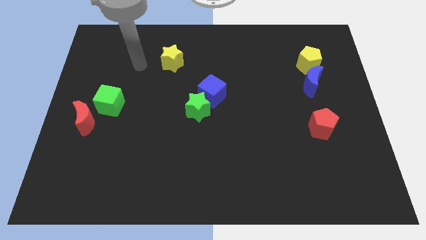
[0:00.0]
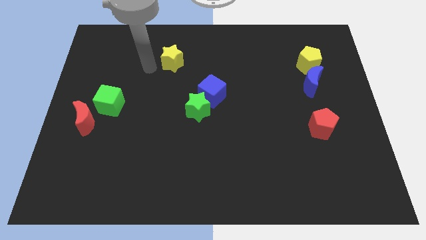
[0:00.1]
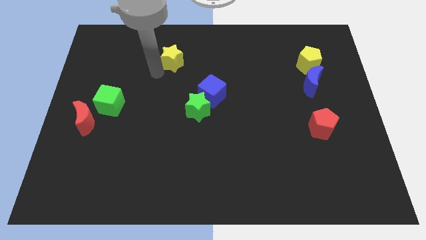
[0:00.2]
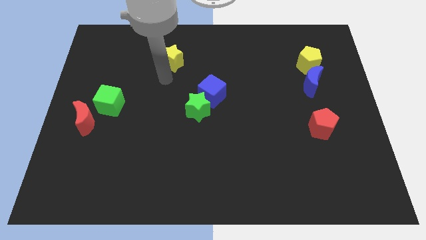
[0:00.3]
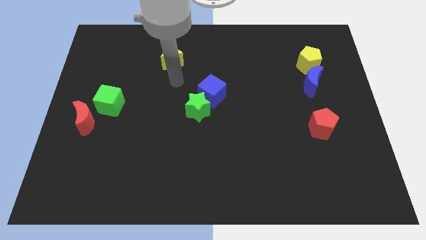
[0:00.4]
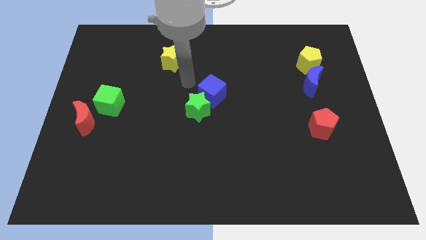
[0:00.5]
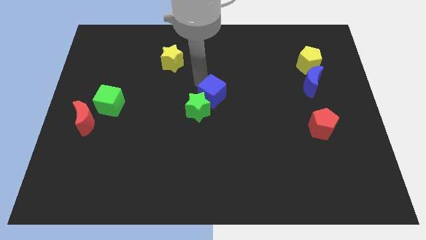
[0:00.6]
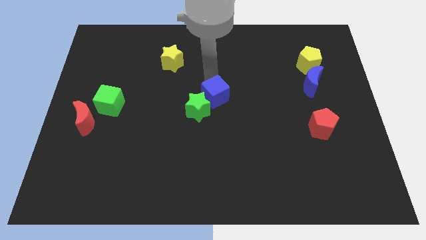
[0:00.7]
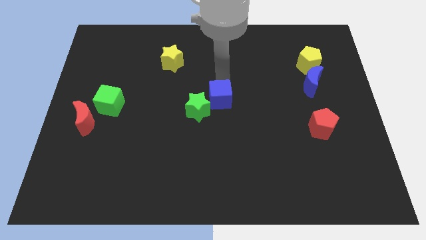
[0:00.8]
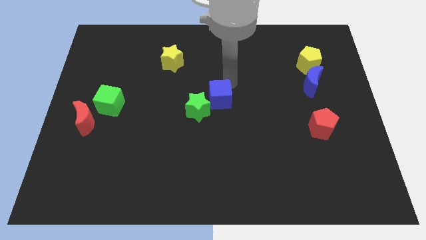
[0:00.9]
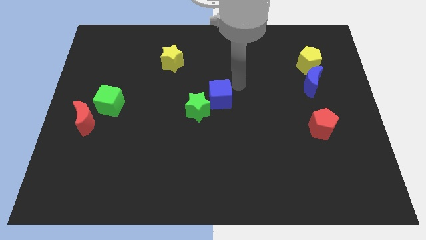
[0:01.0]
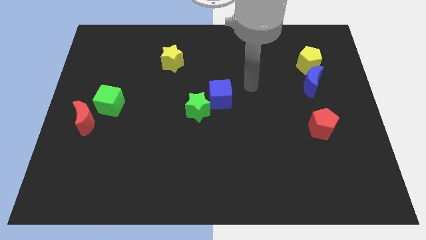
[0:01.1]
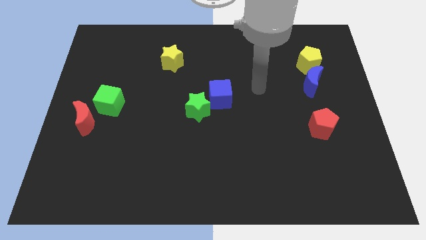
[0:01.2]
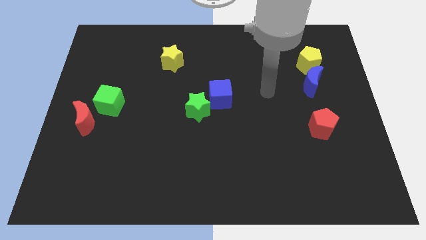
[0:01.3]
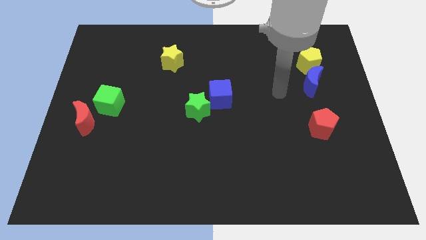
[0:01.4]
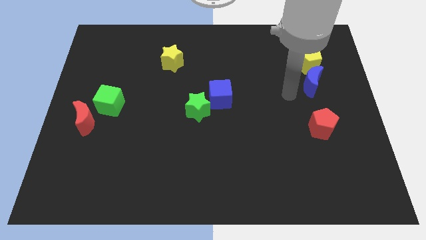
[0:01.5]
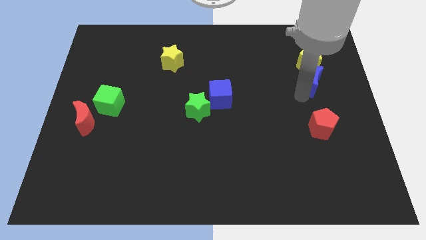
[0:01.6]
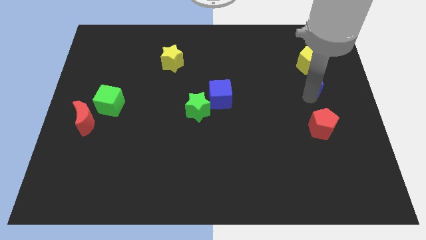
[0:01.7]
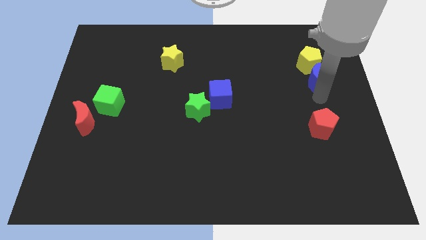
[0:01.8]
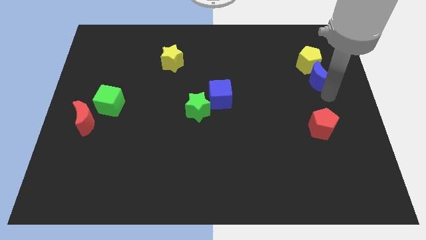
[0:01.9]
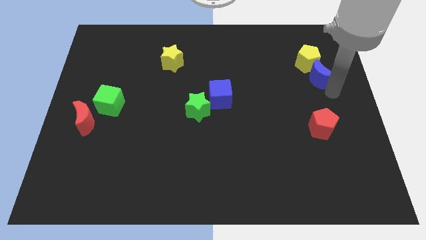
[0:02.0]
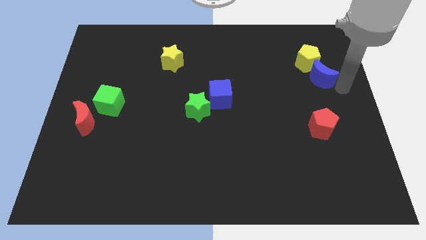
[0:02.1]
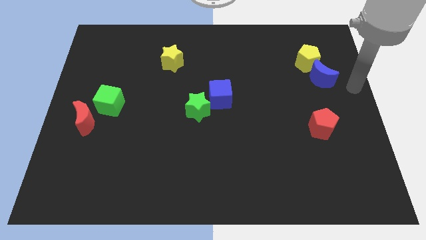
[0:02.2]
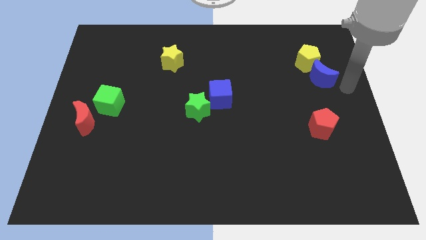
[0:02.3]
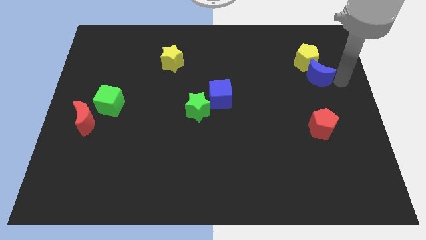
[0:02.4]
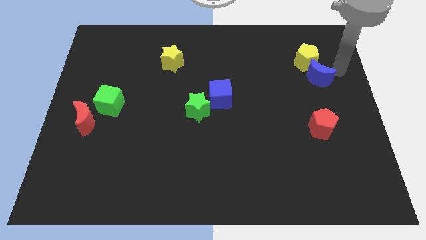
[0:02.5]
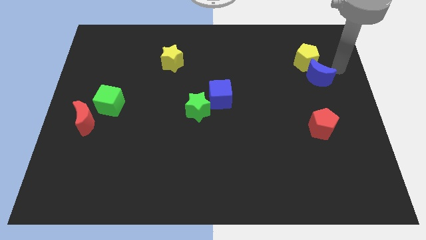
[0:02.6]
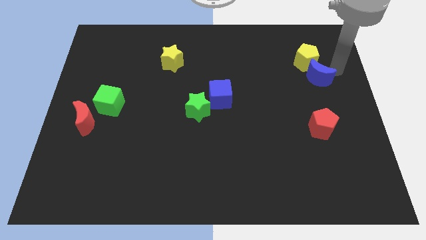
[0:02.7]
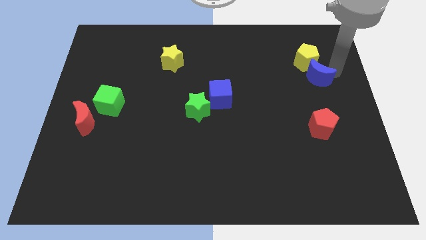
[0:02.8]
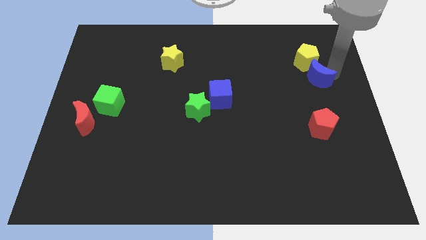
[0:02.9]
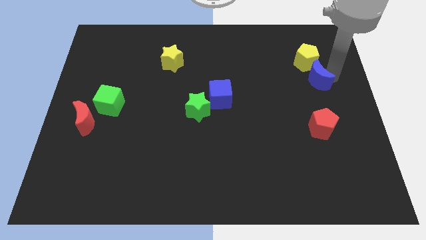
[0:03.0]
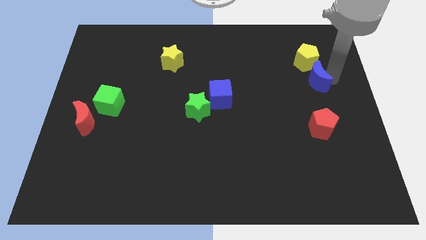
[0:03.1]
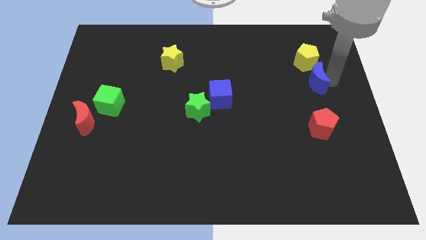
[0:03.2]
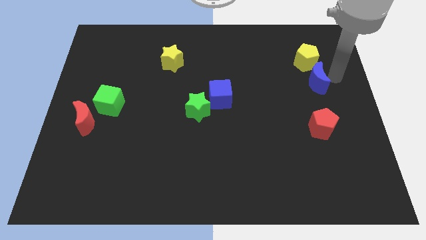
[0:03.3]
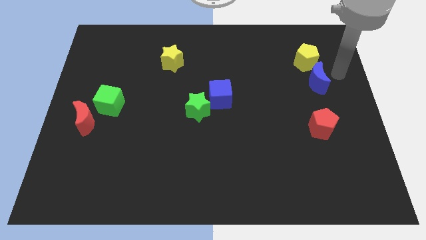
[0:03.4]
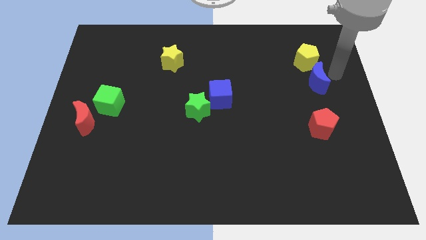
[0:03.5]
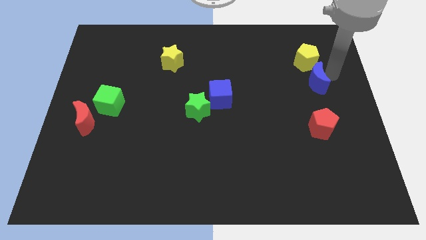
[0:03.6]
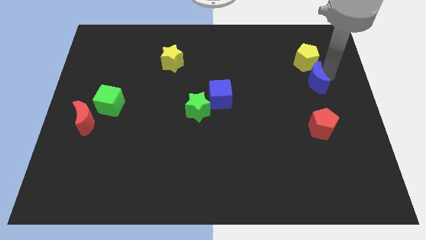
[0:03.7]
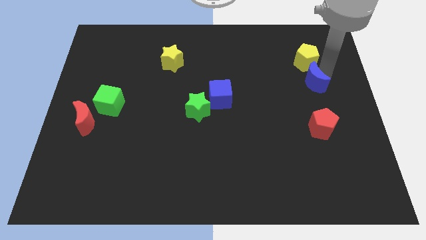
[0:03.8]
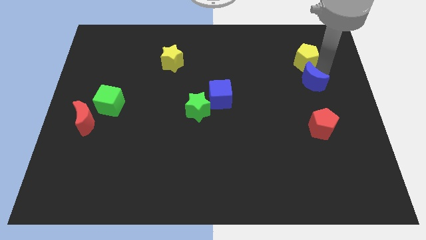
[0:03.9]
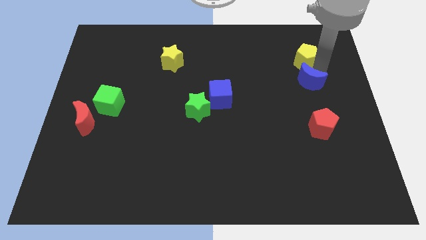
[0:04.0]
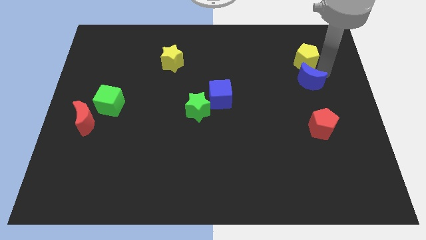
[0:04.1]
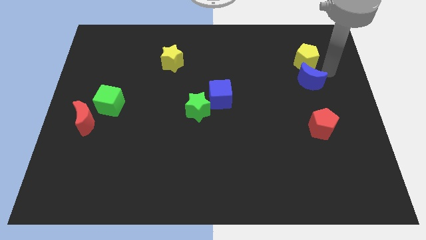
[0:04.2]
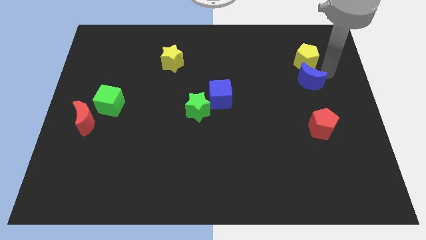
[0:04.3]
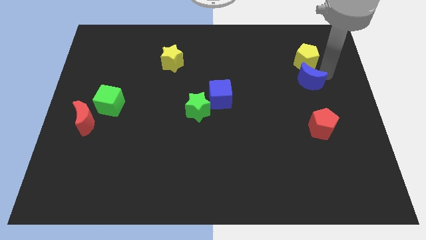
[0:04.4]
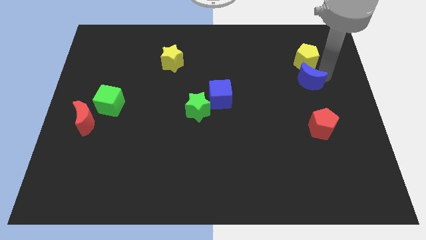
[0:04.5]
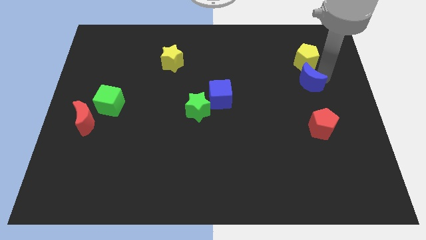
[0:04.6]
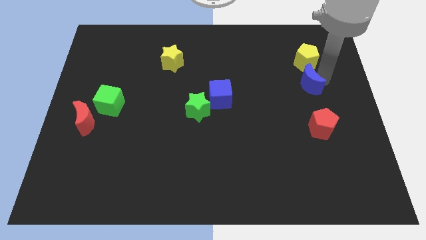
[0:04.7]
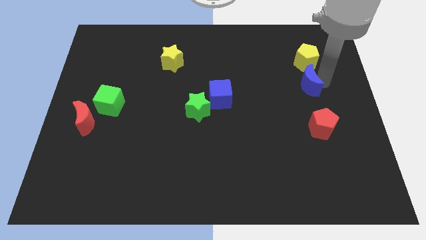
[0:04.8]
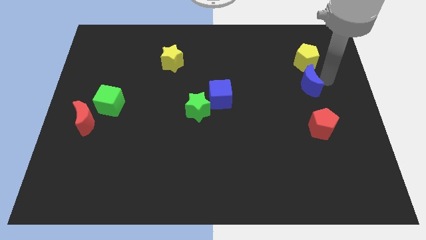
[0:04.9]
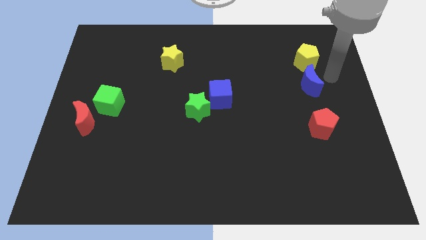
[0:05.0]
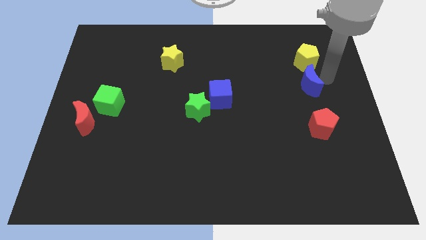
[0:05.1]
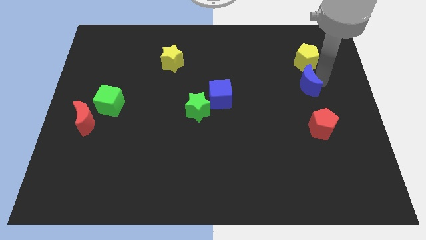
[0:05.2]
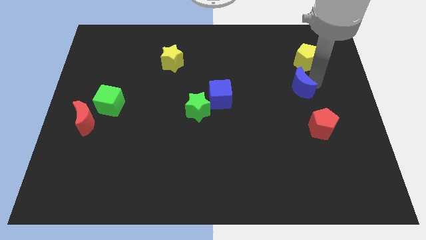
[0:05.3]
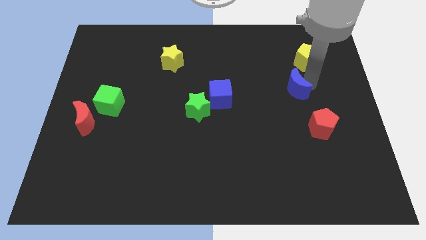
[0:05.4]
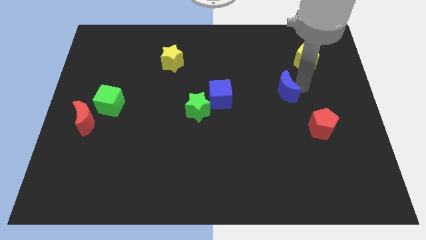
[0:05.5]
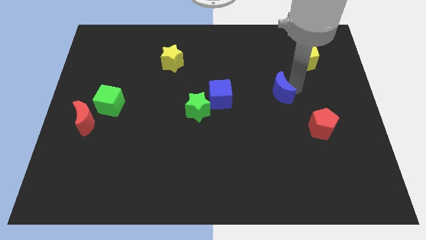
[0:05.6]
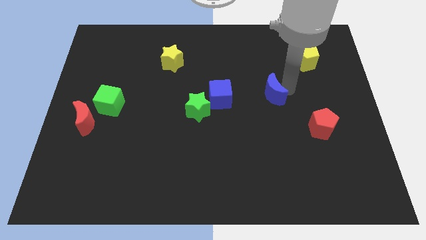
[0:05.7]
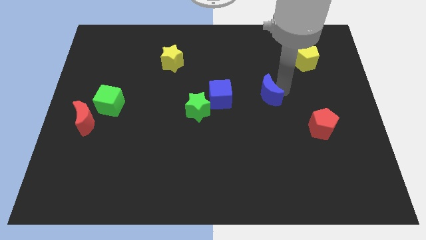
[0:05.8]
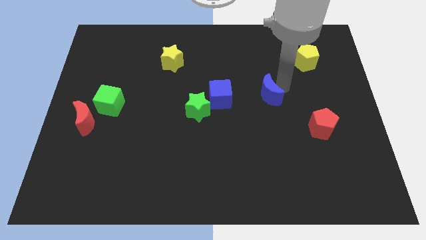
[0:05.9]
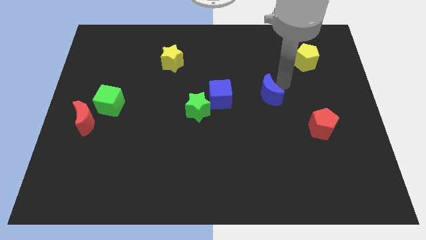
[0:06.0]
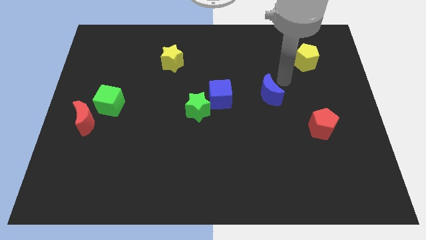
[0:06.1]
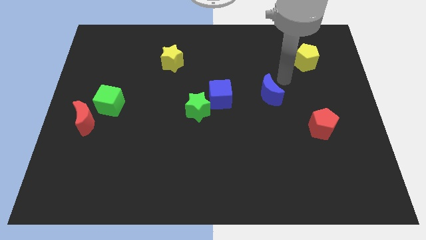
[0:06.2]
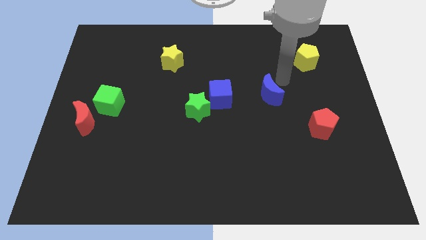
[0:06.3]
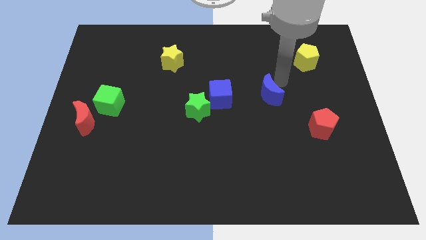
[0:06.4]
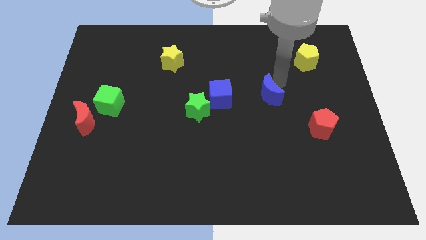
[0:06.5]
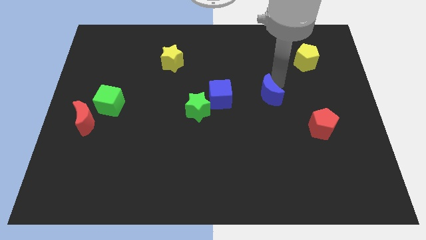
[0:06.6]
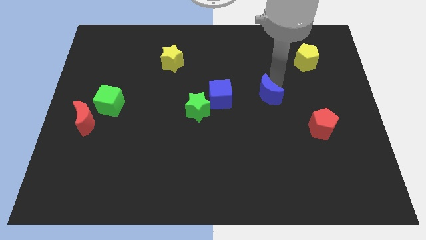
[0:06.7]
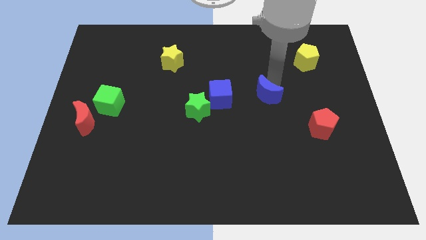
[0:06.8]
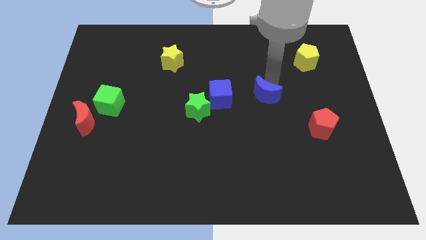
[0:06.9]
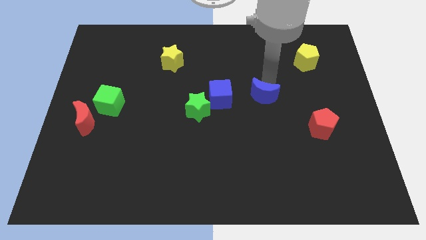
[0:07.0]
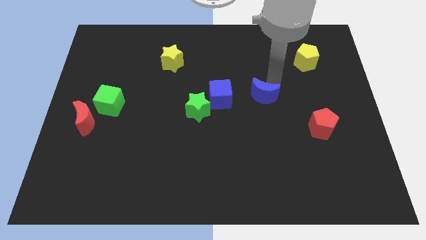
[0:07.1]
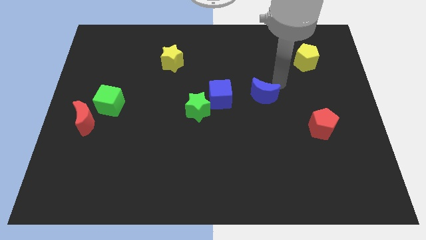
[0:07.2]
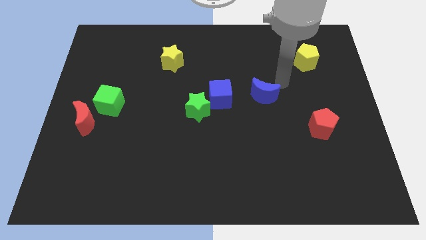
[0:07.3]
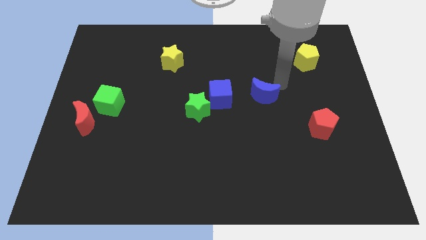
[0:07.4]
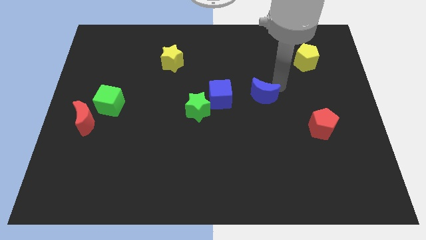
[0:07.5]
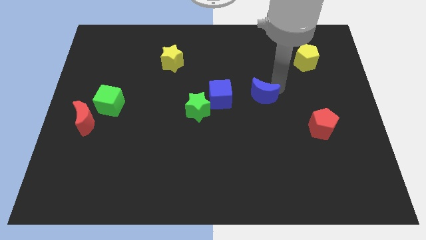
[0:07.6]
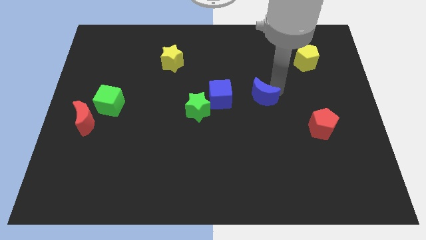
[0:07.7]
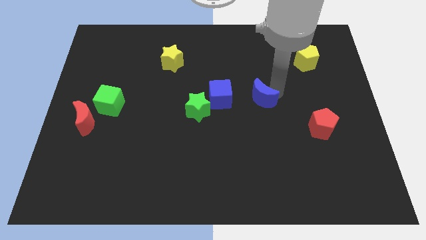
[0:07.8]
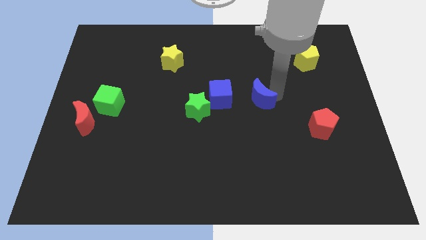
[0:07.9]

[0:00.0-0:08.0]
push the blue moon to the right of the green star
